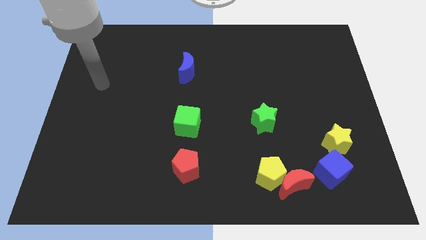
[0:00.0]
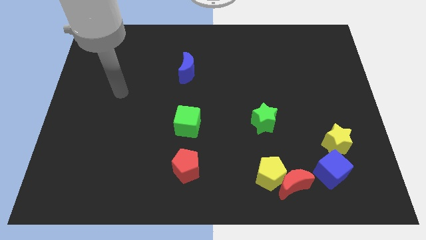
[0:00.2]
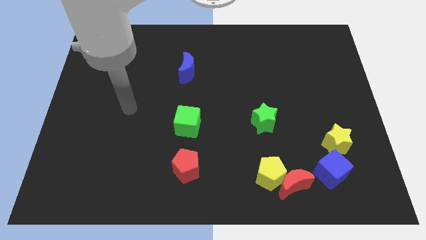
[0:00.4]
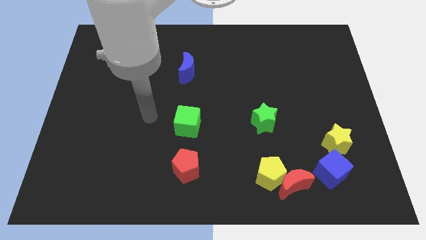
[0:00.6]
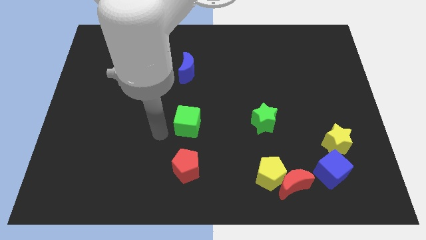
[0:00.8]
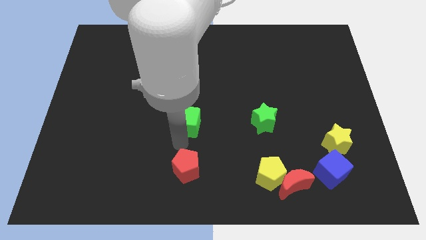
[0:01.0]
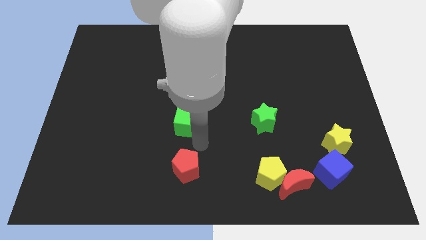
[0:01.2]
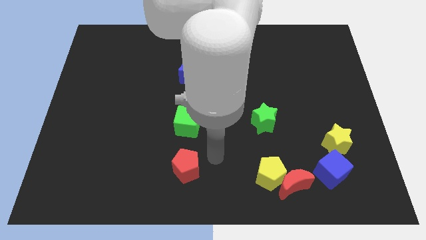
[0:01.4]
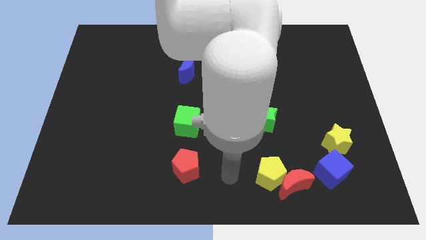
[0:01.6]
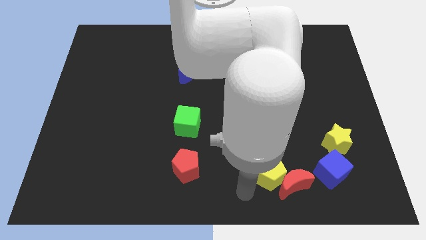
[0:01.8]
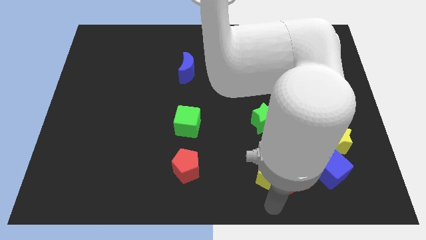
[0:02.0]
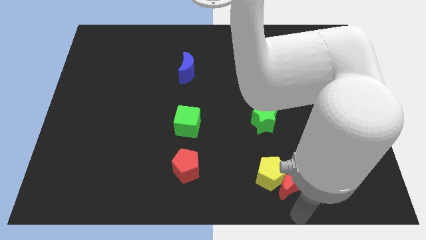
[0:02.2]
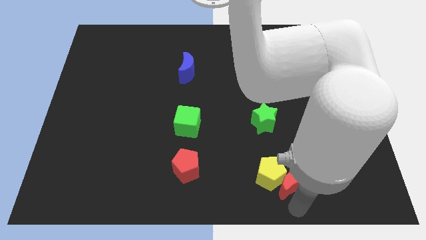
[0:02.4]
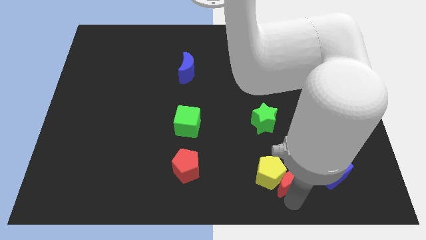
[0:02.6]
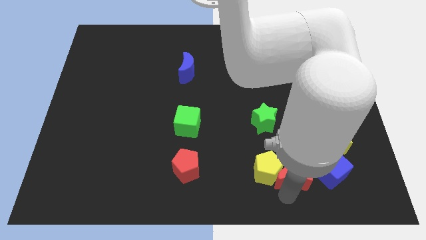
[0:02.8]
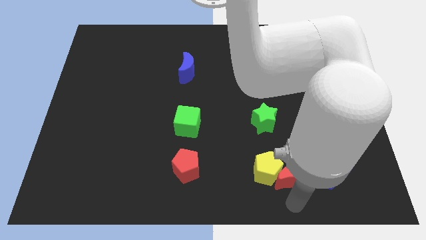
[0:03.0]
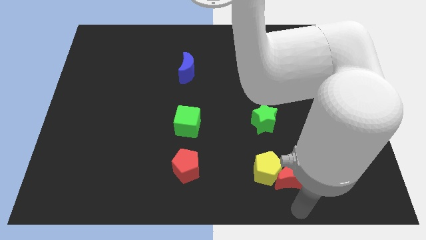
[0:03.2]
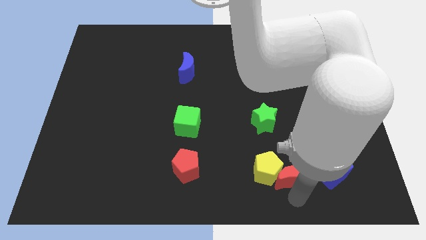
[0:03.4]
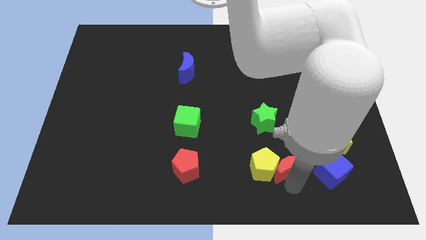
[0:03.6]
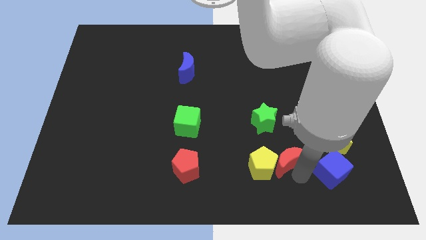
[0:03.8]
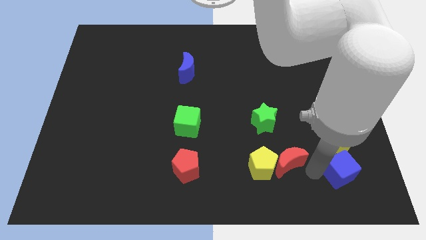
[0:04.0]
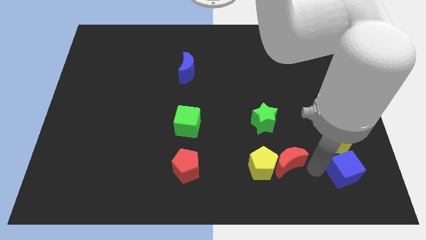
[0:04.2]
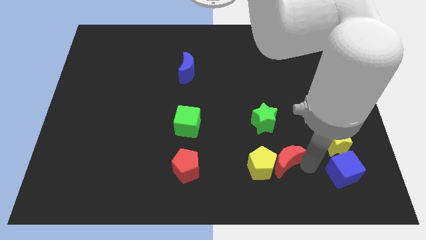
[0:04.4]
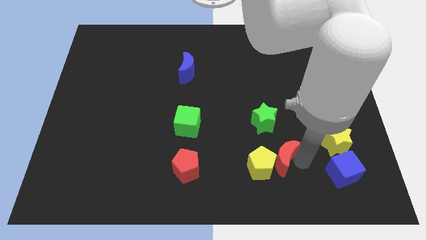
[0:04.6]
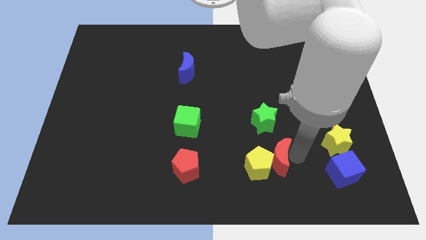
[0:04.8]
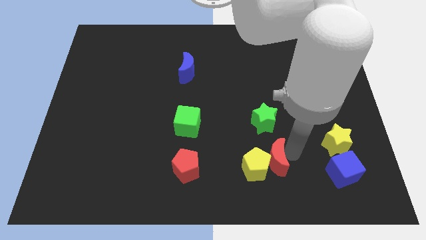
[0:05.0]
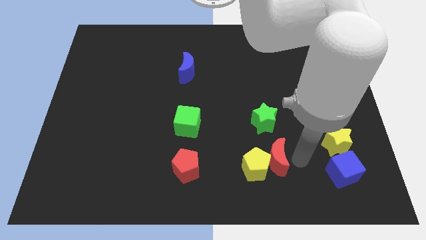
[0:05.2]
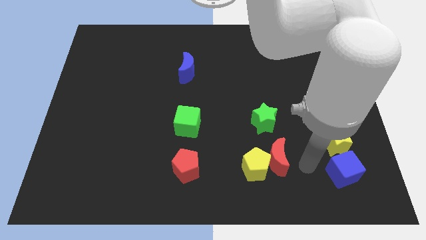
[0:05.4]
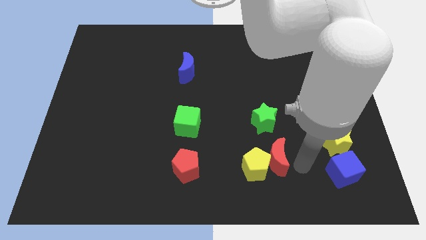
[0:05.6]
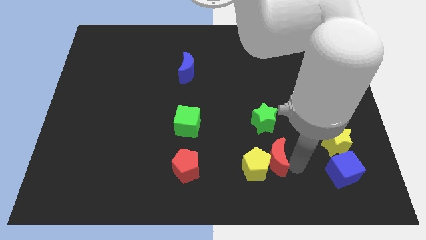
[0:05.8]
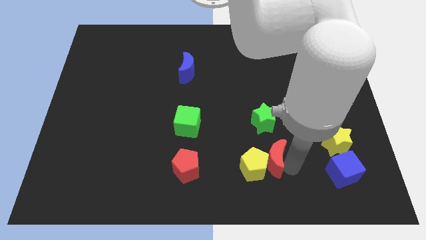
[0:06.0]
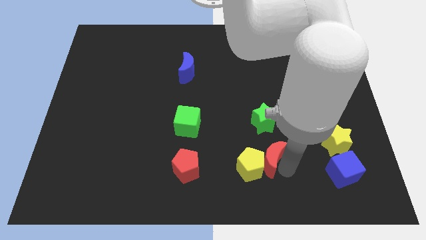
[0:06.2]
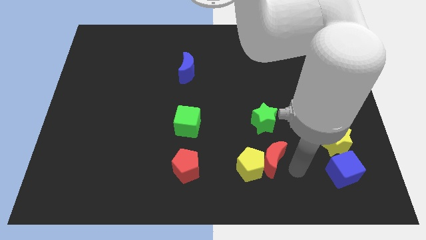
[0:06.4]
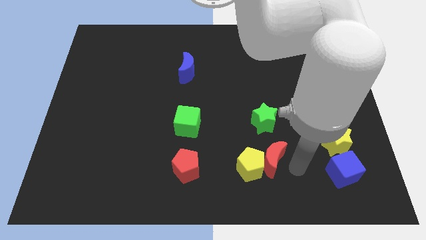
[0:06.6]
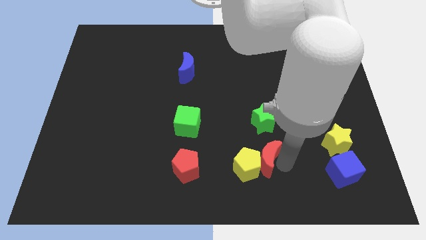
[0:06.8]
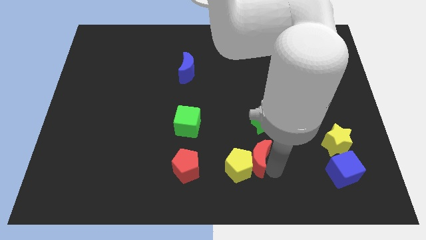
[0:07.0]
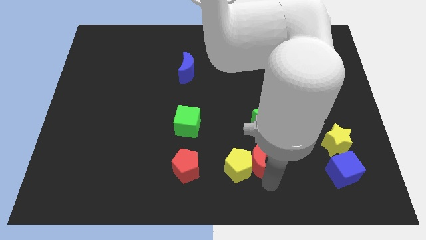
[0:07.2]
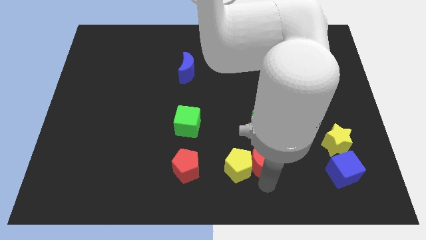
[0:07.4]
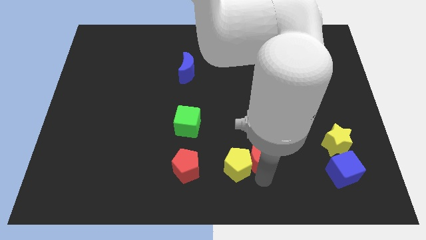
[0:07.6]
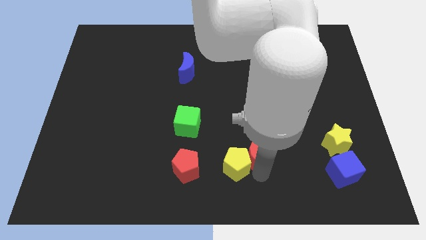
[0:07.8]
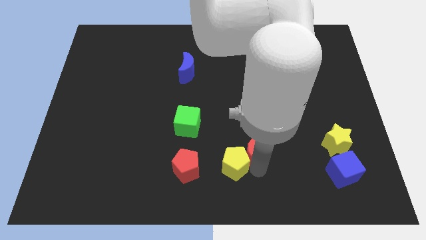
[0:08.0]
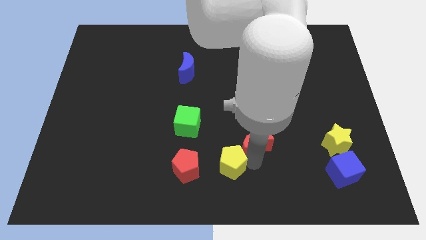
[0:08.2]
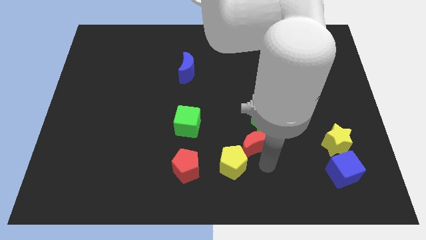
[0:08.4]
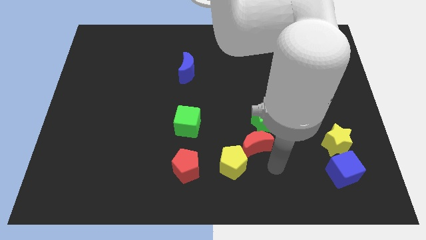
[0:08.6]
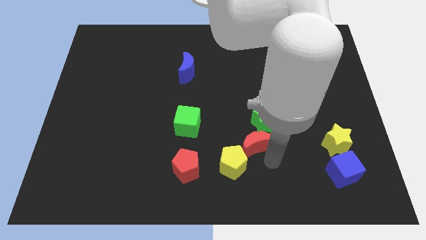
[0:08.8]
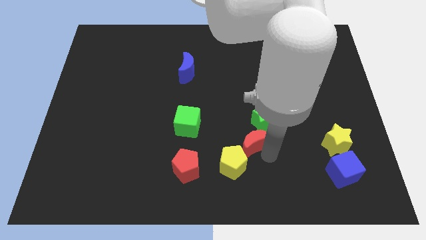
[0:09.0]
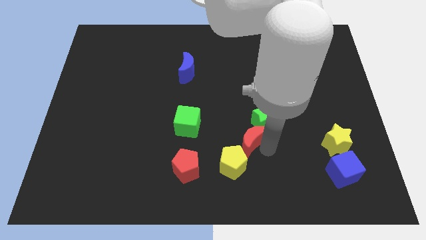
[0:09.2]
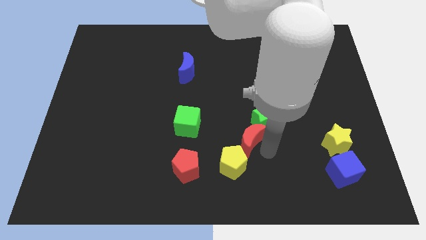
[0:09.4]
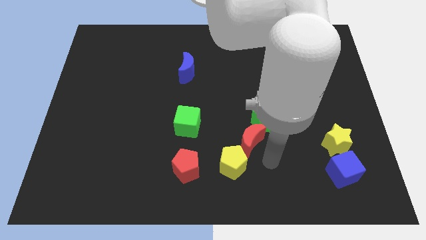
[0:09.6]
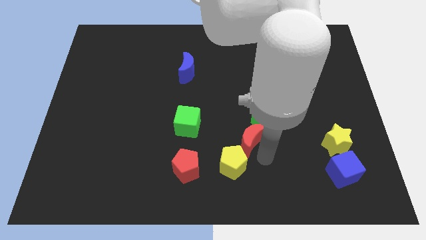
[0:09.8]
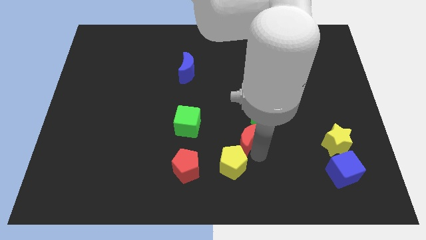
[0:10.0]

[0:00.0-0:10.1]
move the red moon right of the green cube

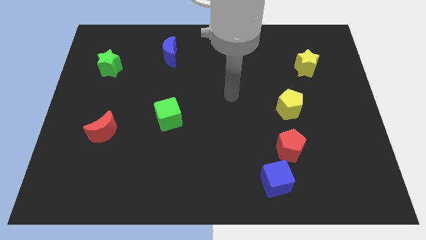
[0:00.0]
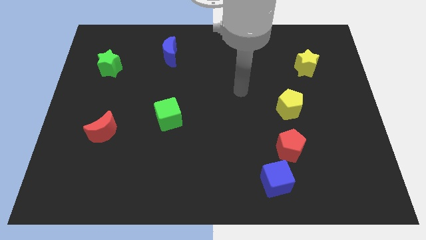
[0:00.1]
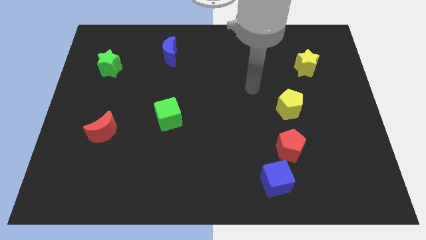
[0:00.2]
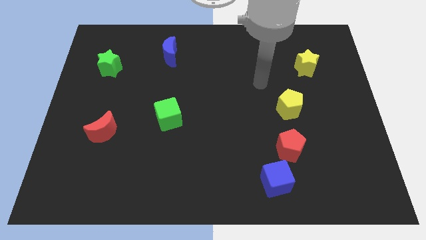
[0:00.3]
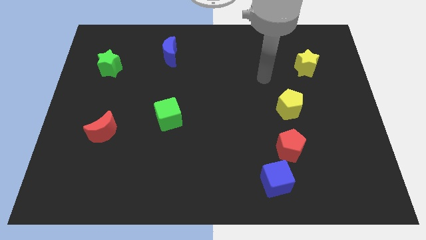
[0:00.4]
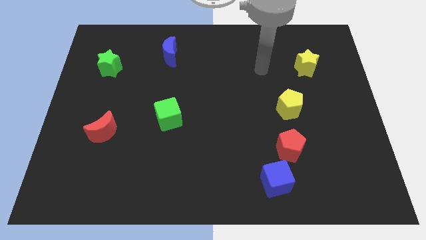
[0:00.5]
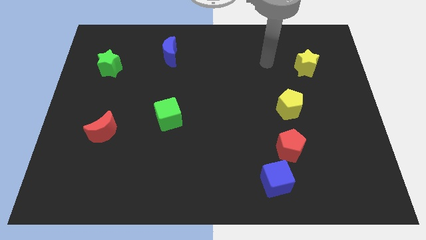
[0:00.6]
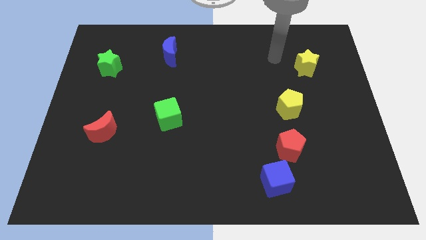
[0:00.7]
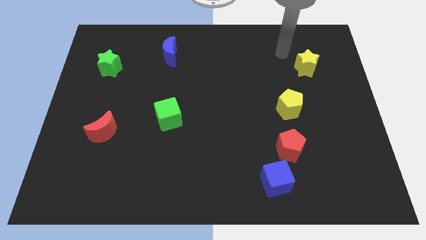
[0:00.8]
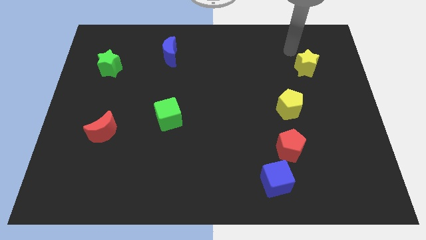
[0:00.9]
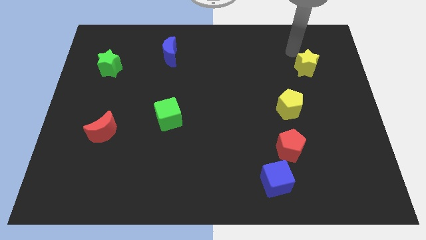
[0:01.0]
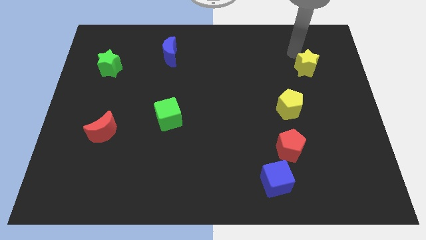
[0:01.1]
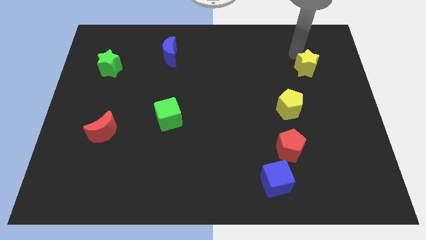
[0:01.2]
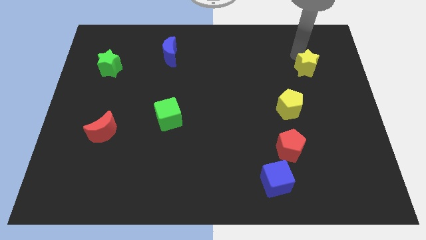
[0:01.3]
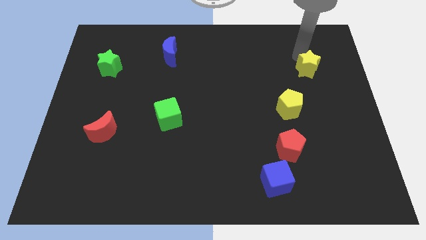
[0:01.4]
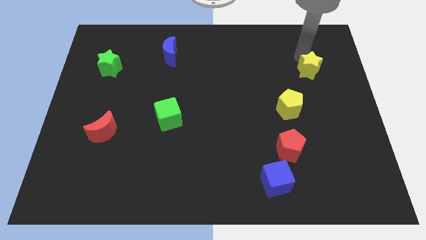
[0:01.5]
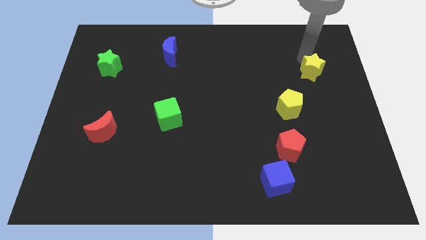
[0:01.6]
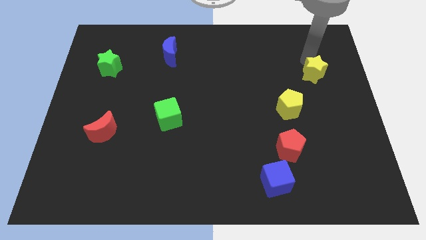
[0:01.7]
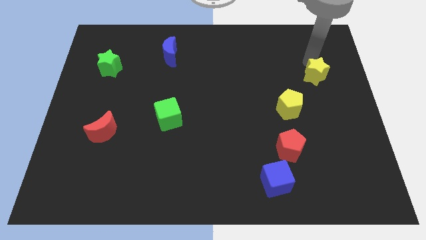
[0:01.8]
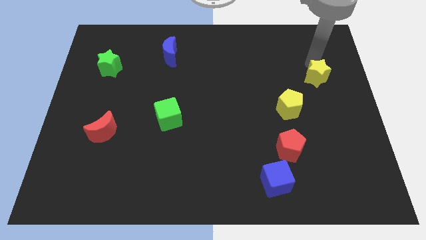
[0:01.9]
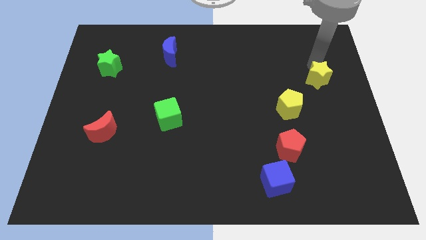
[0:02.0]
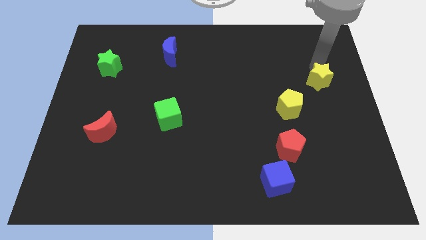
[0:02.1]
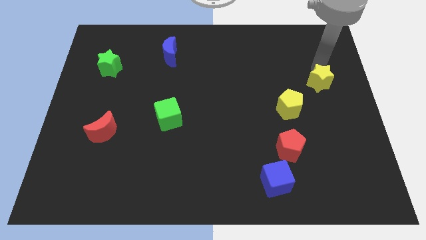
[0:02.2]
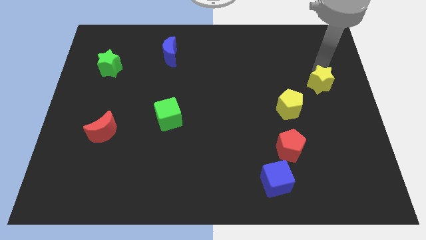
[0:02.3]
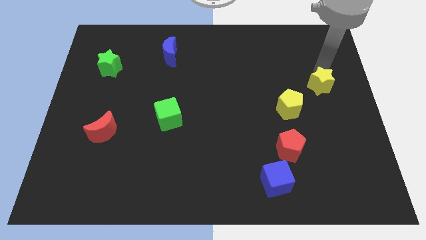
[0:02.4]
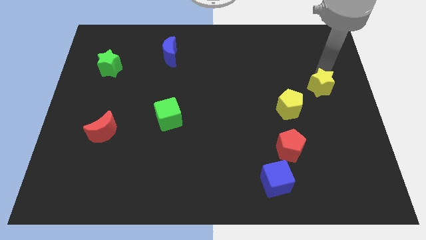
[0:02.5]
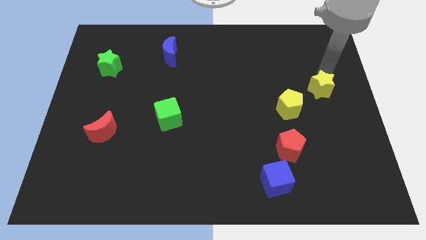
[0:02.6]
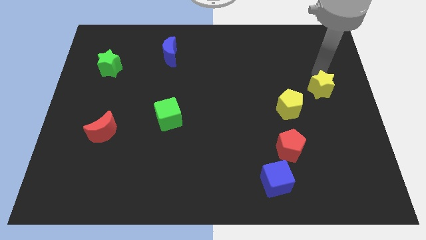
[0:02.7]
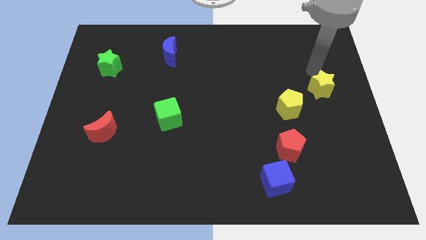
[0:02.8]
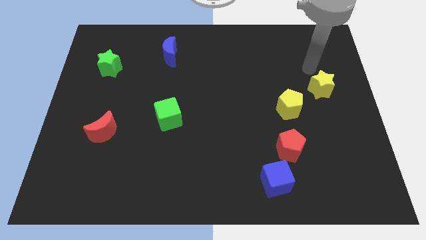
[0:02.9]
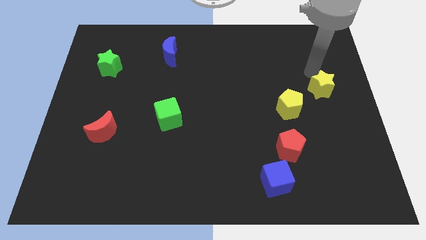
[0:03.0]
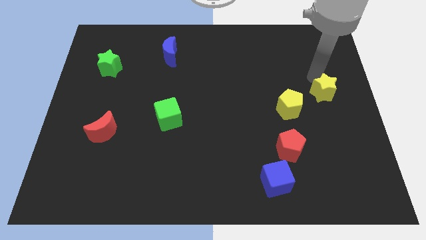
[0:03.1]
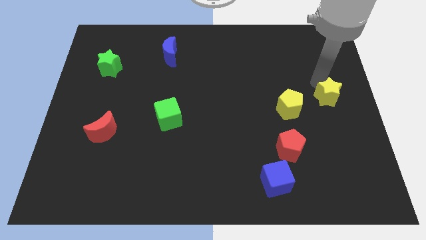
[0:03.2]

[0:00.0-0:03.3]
slide the yellow star right of the yellow pentagon
